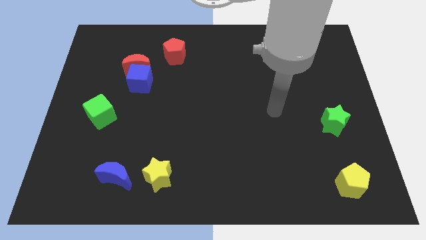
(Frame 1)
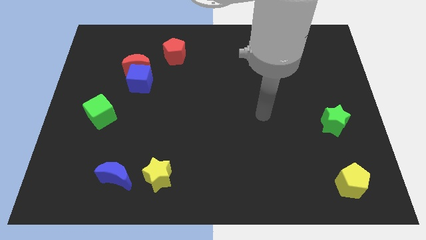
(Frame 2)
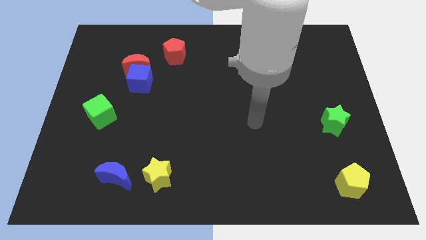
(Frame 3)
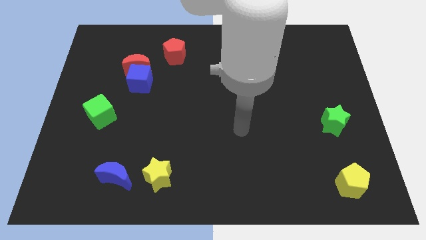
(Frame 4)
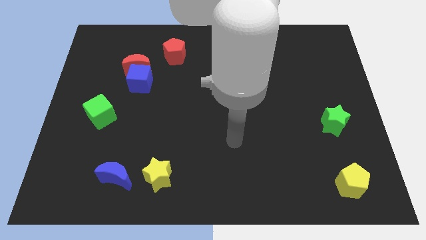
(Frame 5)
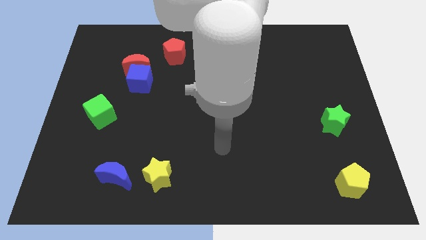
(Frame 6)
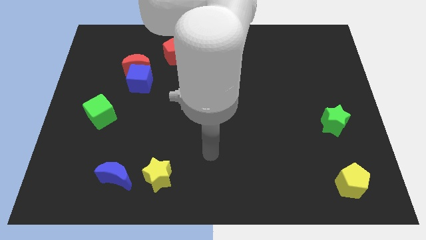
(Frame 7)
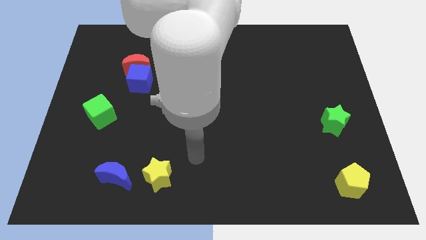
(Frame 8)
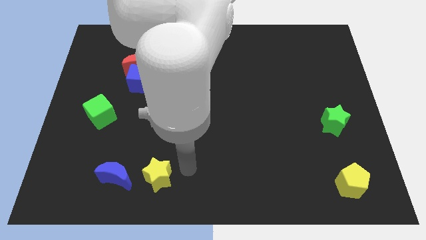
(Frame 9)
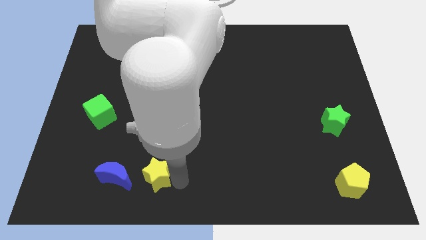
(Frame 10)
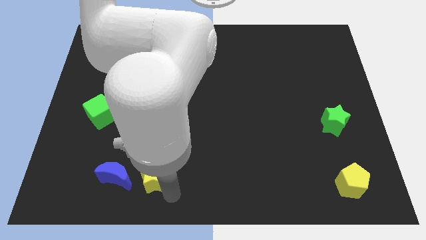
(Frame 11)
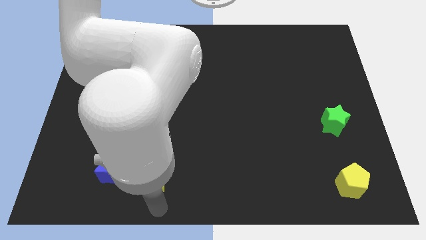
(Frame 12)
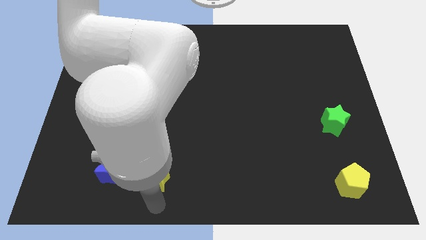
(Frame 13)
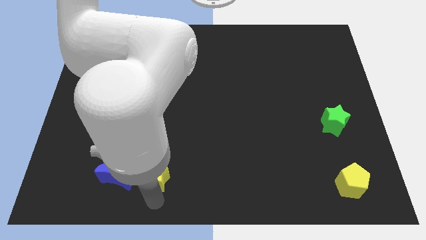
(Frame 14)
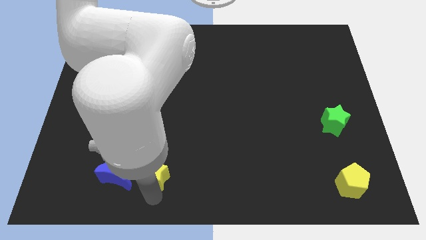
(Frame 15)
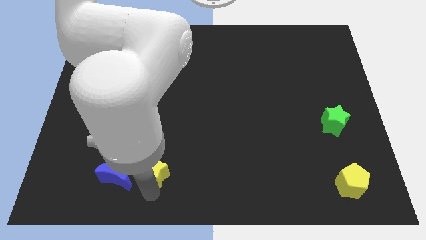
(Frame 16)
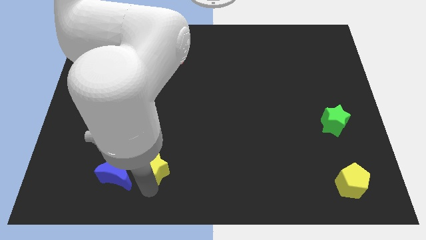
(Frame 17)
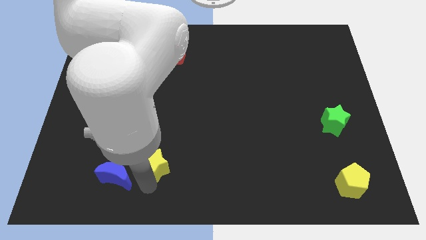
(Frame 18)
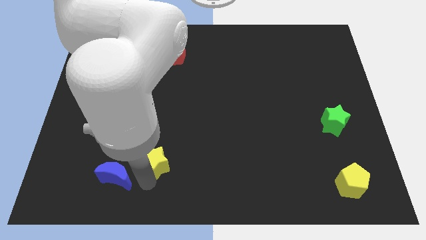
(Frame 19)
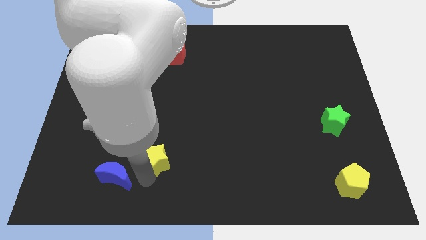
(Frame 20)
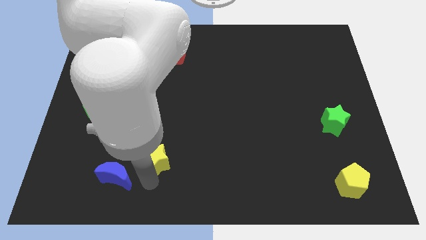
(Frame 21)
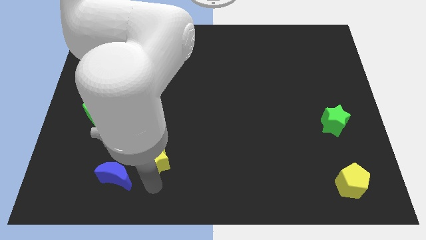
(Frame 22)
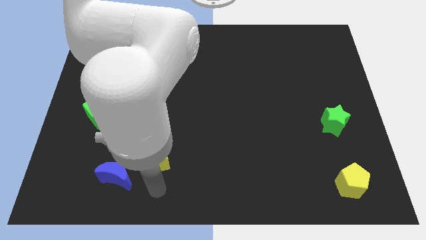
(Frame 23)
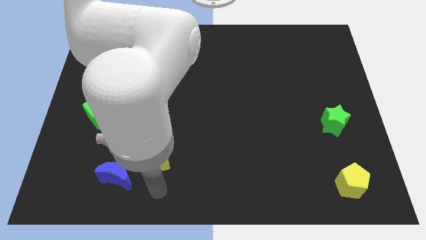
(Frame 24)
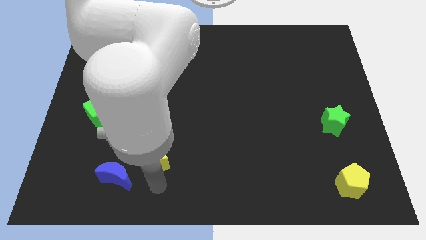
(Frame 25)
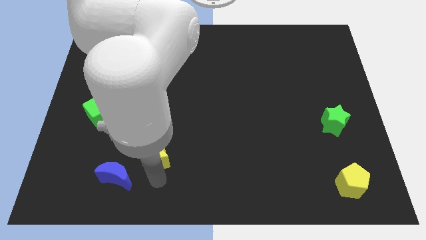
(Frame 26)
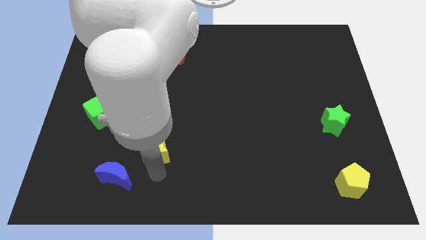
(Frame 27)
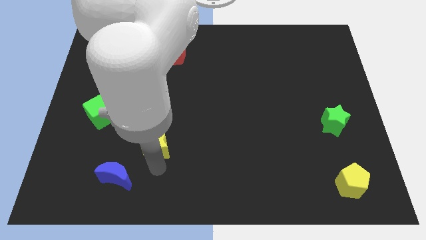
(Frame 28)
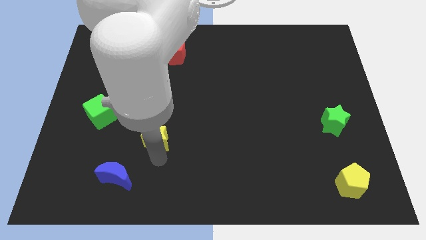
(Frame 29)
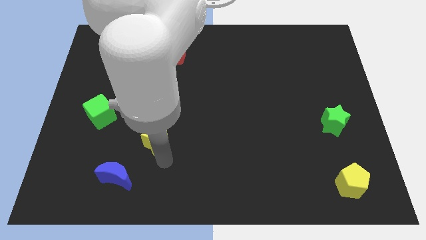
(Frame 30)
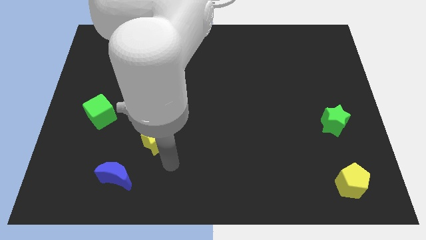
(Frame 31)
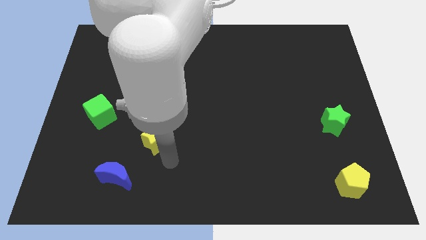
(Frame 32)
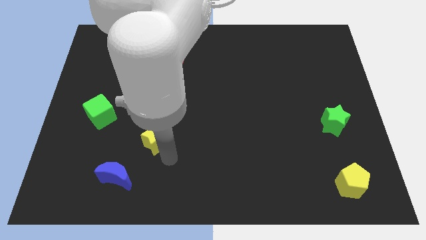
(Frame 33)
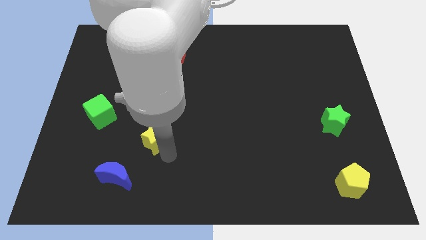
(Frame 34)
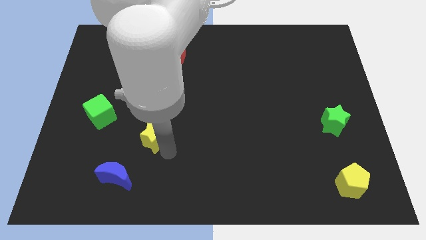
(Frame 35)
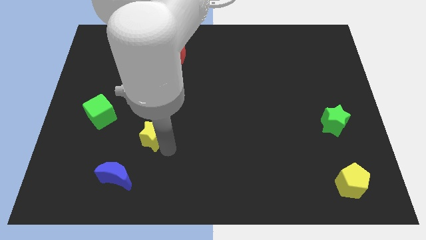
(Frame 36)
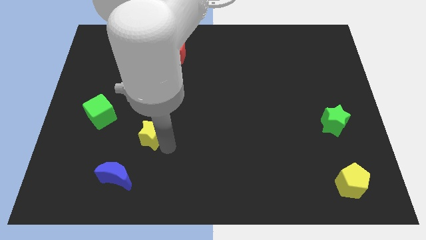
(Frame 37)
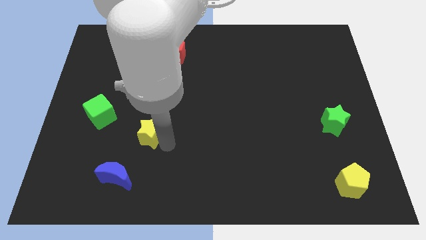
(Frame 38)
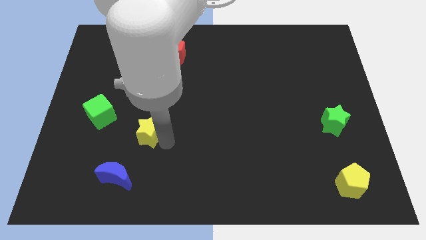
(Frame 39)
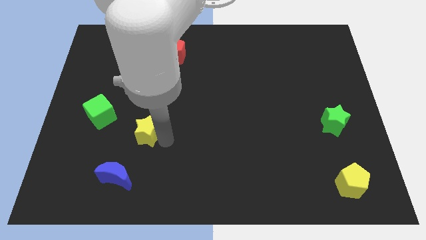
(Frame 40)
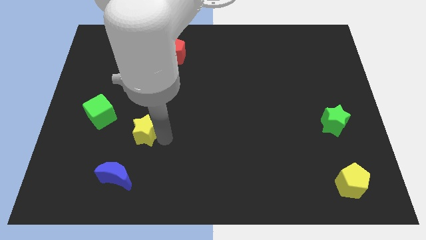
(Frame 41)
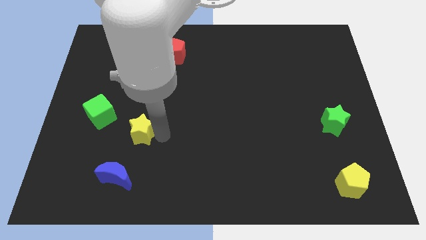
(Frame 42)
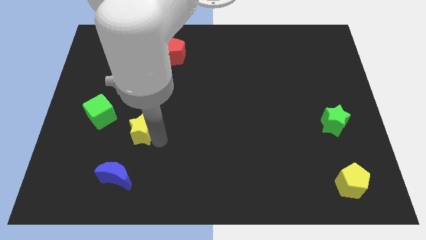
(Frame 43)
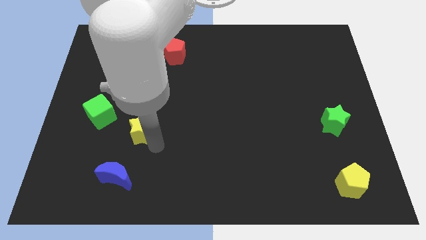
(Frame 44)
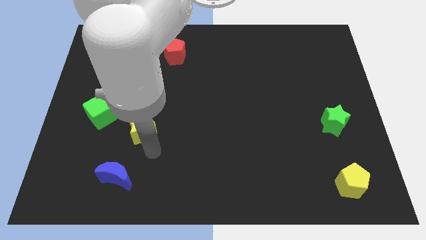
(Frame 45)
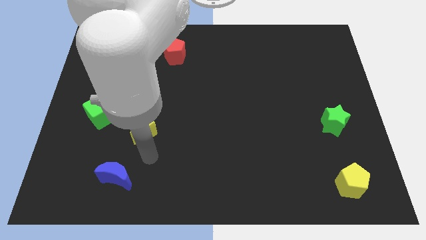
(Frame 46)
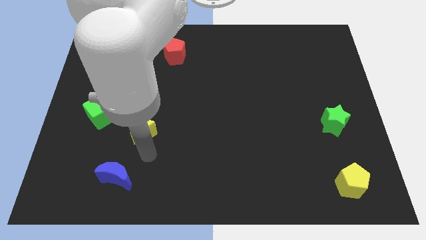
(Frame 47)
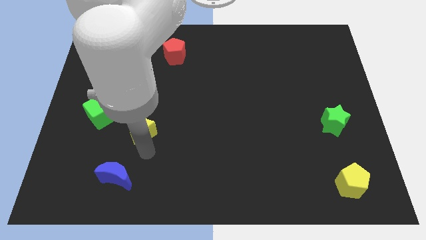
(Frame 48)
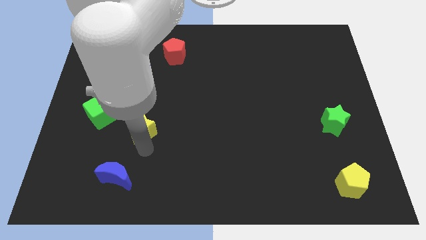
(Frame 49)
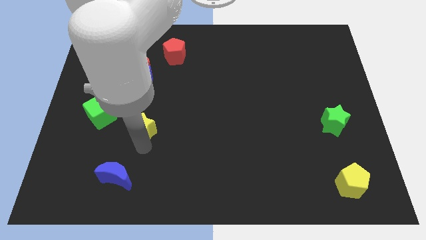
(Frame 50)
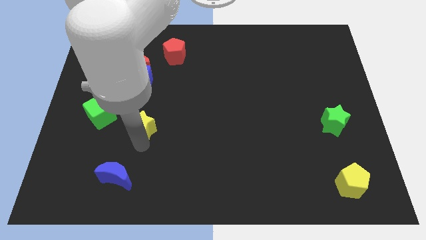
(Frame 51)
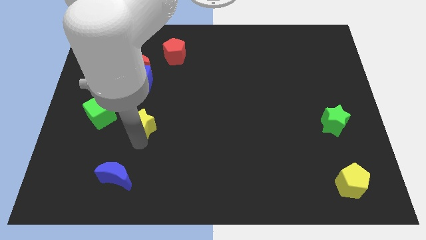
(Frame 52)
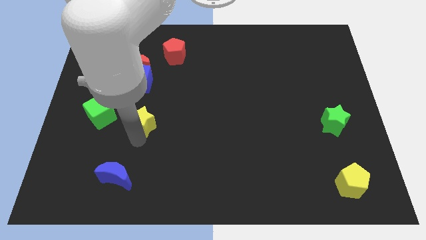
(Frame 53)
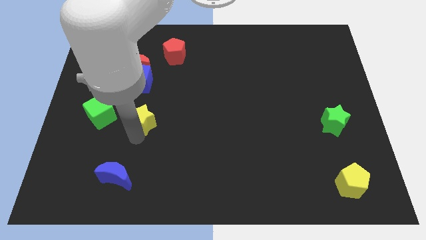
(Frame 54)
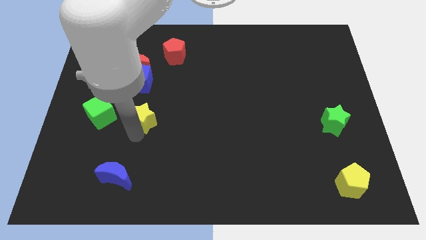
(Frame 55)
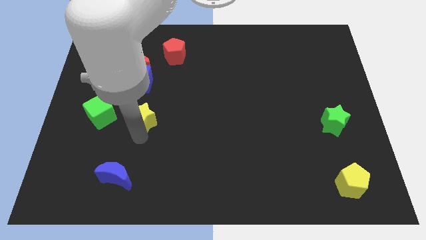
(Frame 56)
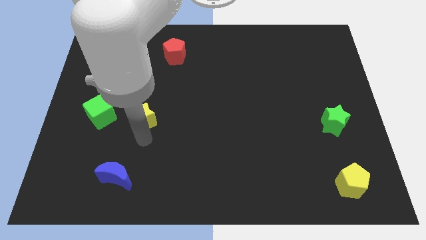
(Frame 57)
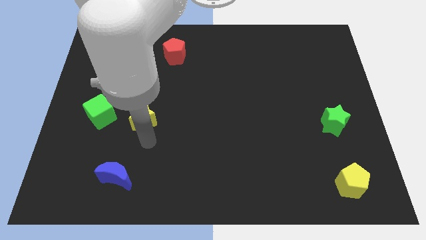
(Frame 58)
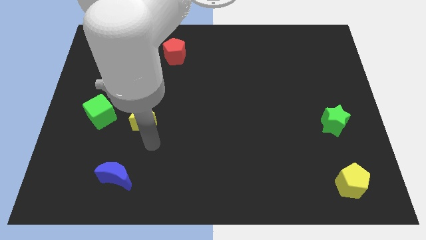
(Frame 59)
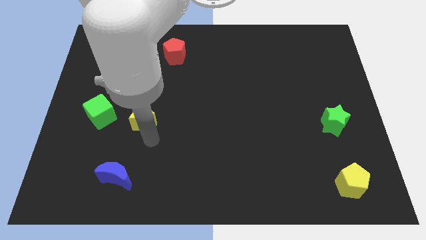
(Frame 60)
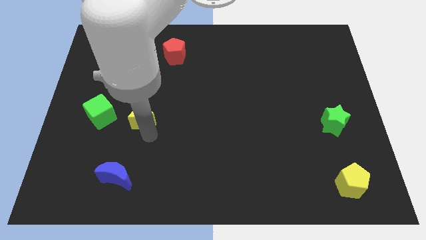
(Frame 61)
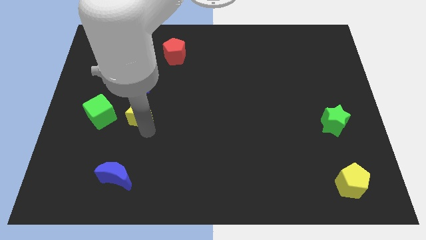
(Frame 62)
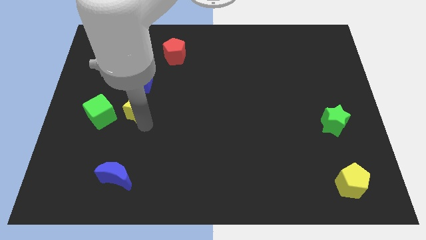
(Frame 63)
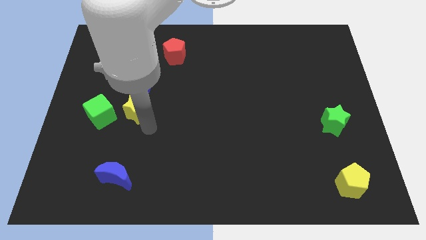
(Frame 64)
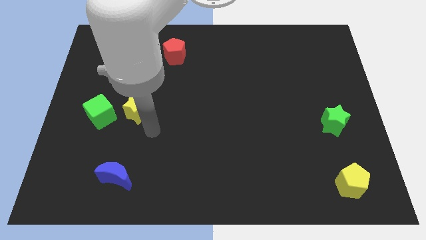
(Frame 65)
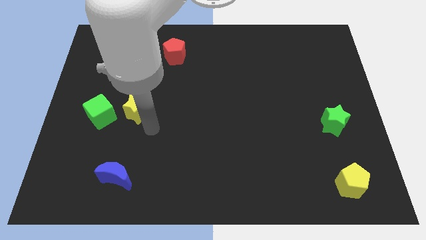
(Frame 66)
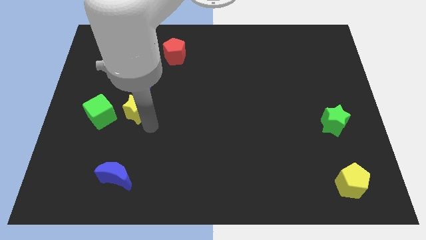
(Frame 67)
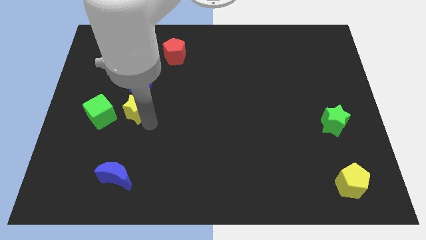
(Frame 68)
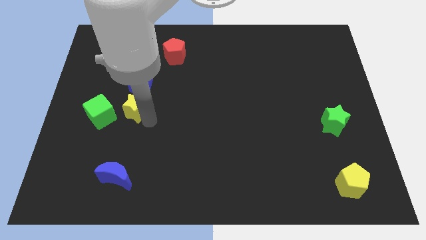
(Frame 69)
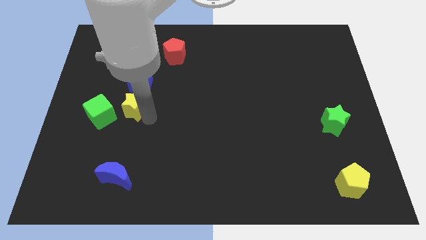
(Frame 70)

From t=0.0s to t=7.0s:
put the yellow star diagonally up and to the right of the green cube

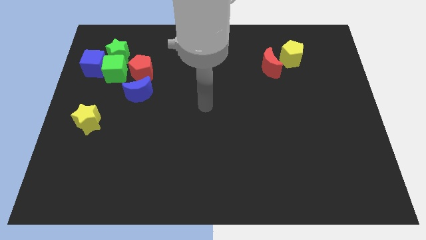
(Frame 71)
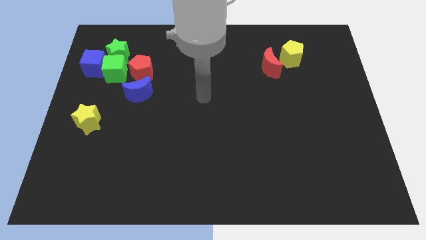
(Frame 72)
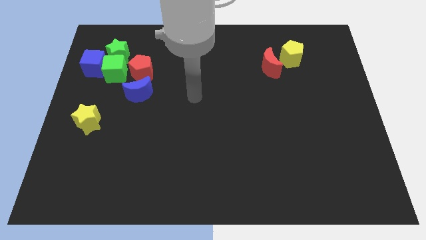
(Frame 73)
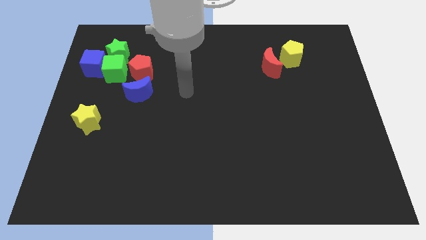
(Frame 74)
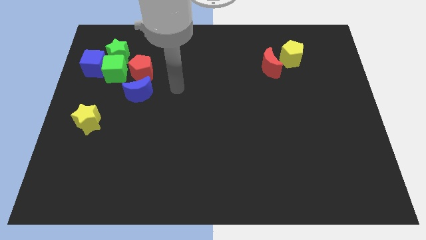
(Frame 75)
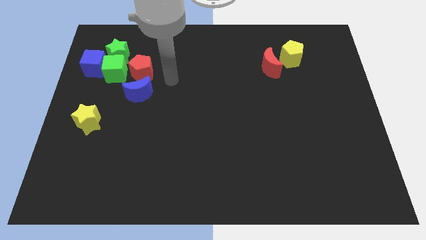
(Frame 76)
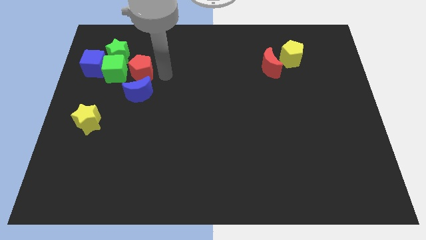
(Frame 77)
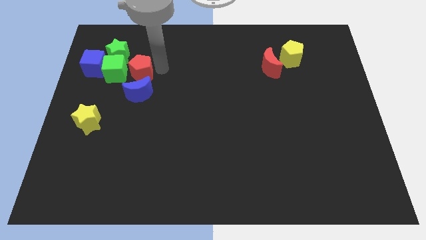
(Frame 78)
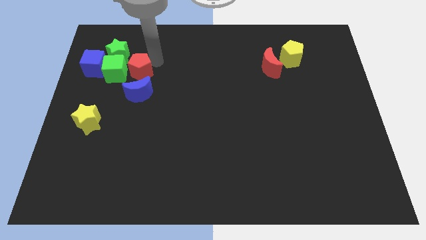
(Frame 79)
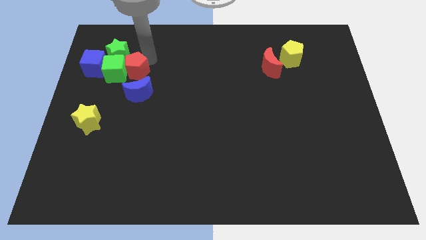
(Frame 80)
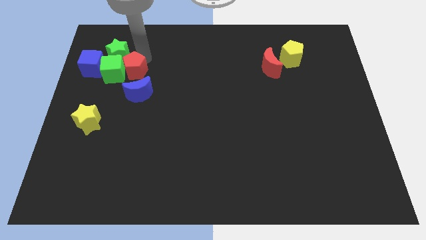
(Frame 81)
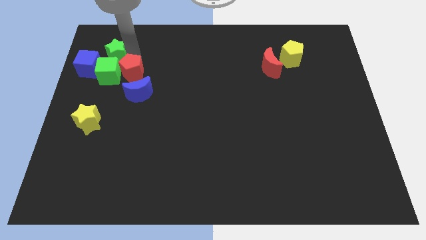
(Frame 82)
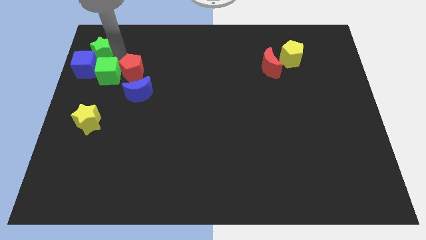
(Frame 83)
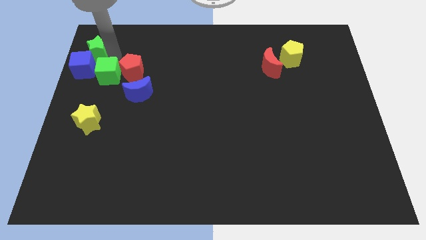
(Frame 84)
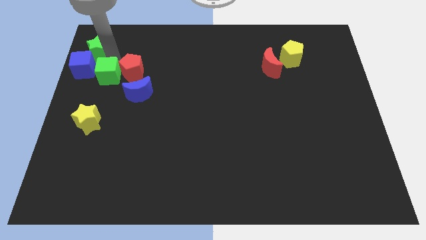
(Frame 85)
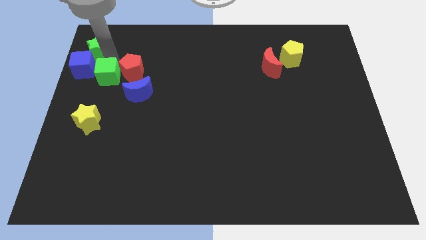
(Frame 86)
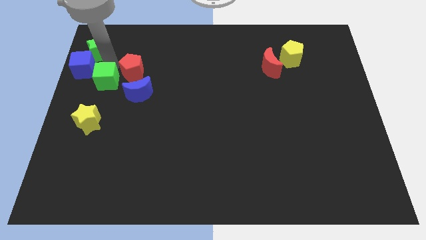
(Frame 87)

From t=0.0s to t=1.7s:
move the green cube to the left side of the blue moon
